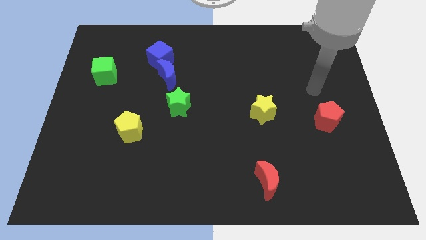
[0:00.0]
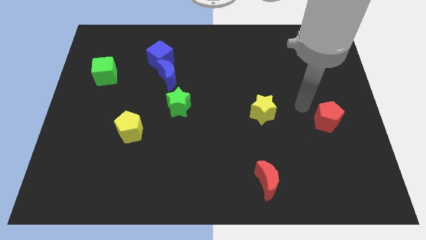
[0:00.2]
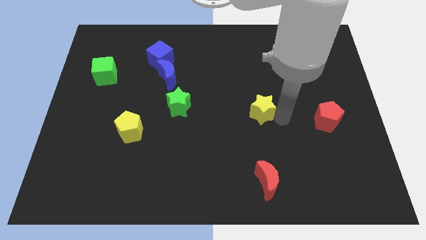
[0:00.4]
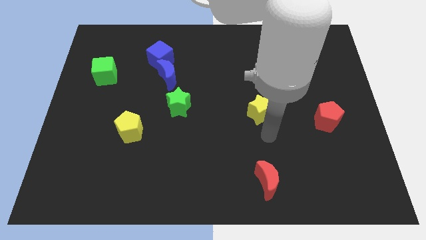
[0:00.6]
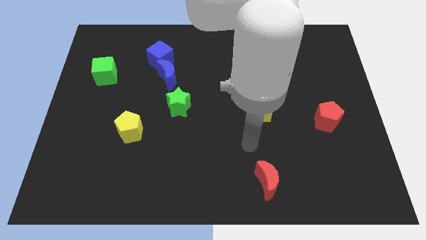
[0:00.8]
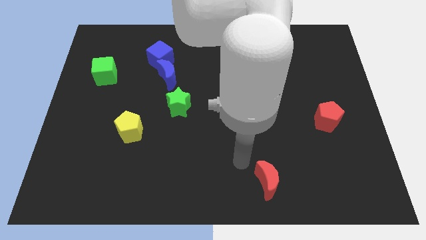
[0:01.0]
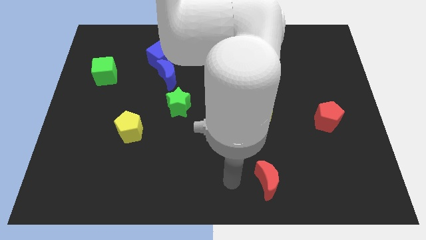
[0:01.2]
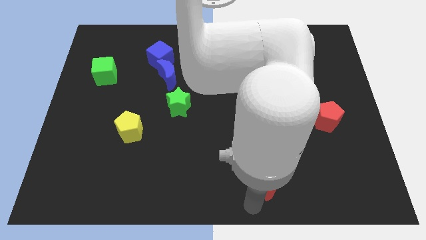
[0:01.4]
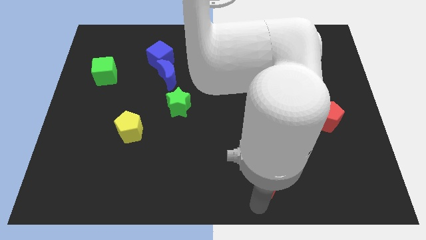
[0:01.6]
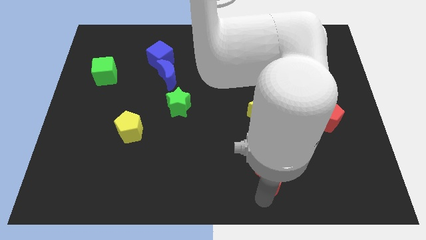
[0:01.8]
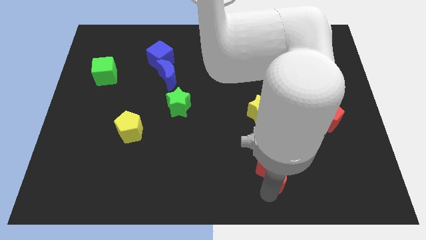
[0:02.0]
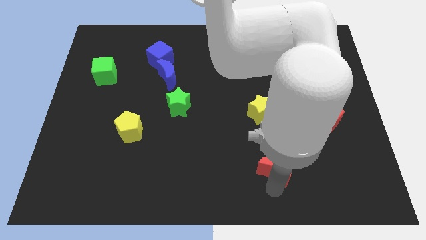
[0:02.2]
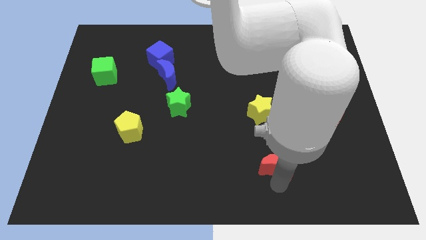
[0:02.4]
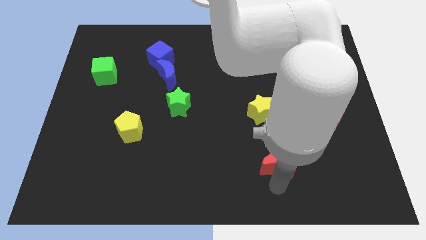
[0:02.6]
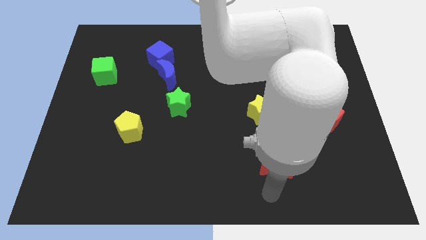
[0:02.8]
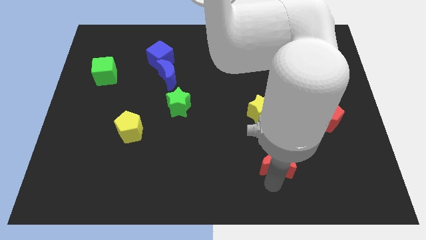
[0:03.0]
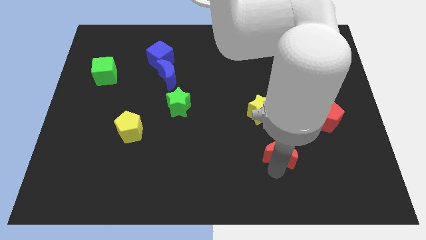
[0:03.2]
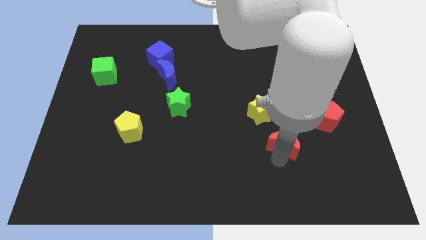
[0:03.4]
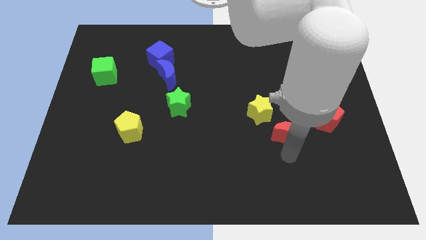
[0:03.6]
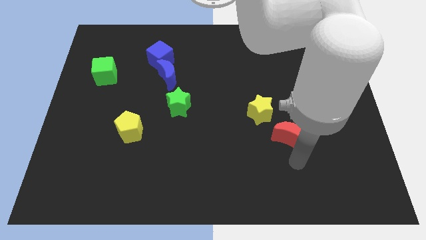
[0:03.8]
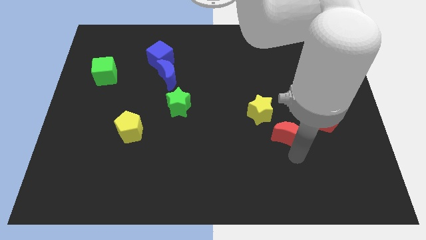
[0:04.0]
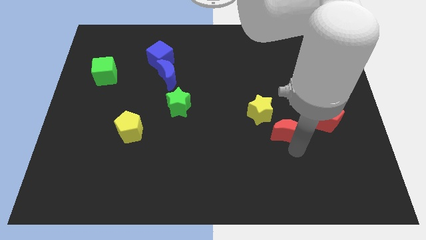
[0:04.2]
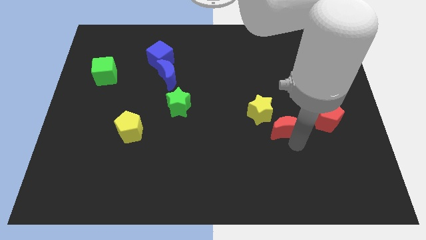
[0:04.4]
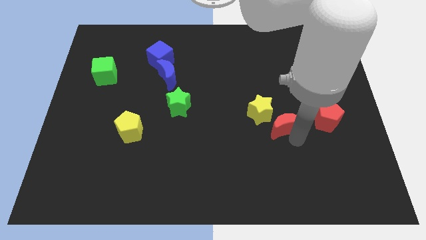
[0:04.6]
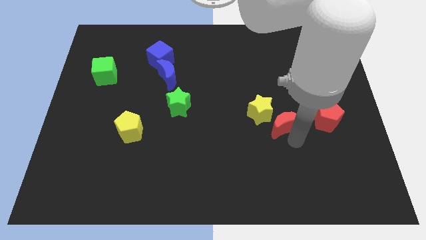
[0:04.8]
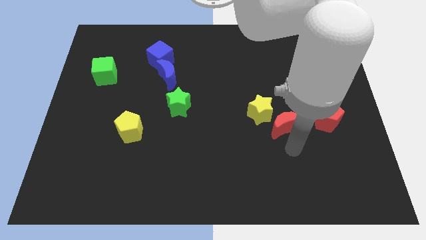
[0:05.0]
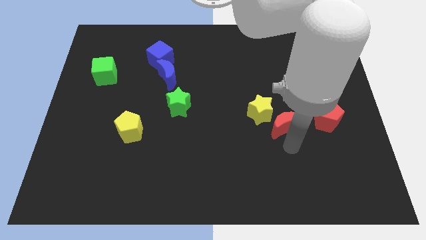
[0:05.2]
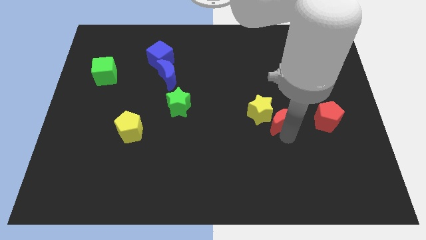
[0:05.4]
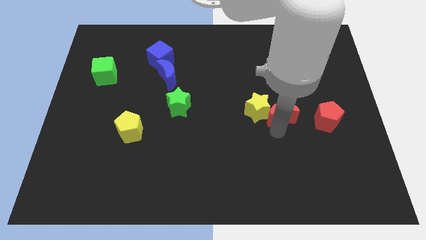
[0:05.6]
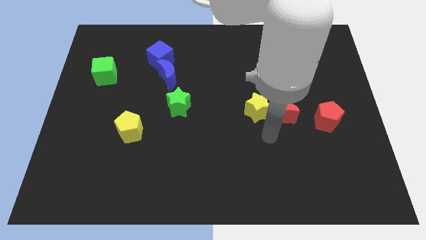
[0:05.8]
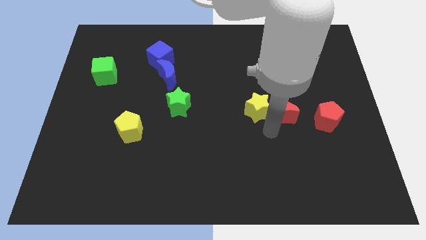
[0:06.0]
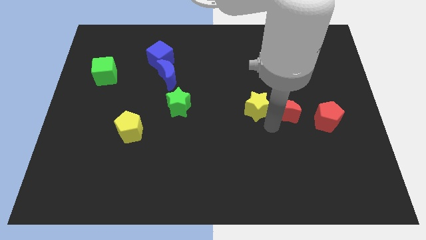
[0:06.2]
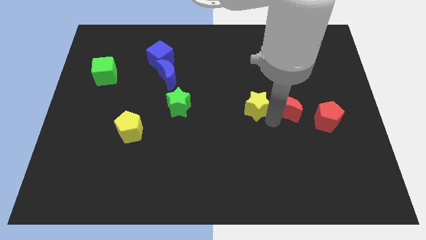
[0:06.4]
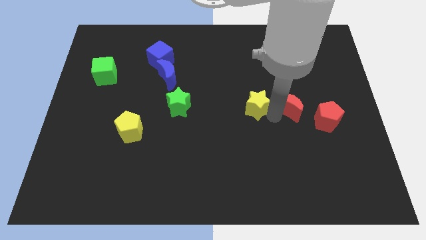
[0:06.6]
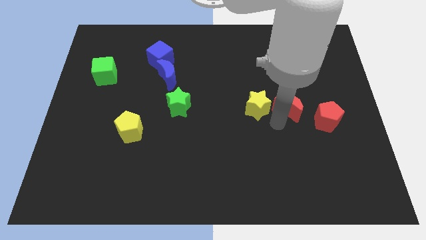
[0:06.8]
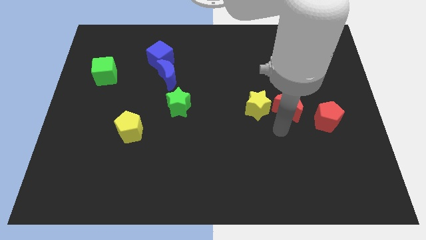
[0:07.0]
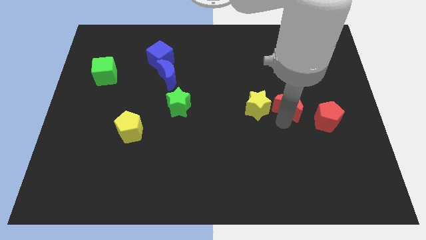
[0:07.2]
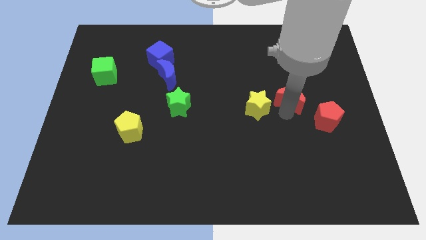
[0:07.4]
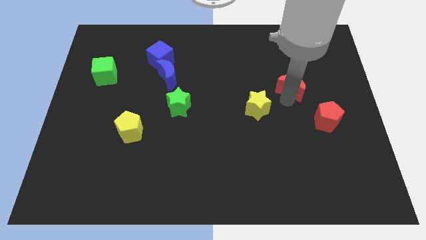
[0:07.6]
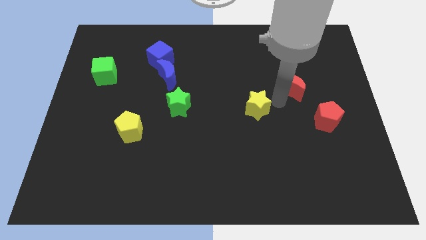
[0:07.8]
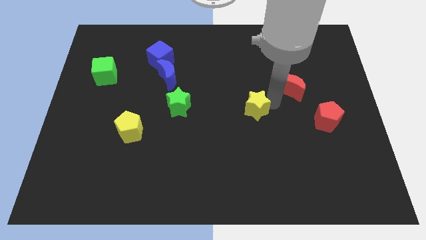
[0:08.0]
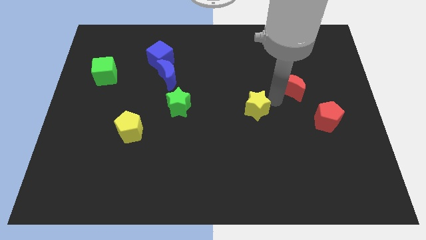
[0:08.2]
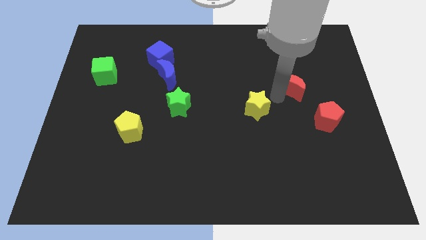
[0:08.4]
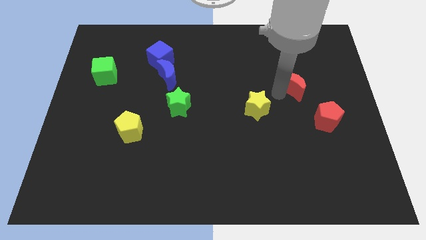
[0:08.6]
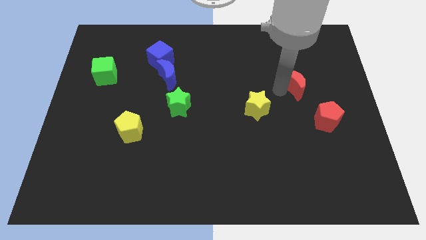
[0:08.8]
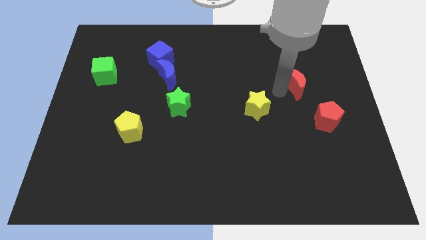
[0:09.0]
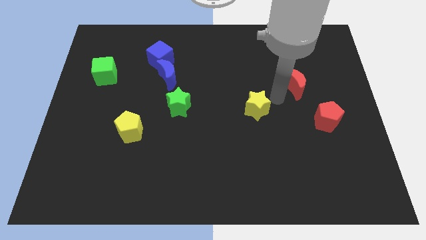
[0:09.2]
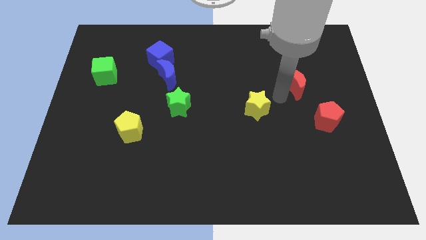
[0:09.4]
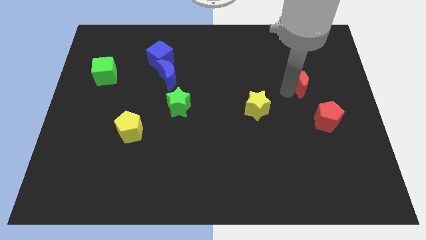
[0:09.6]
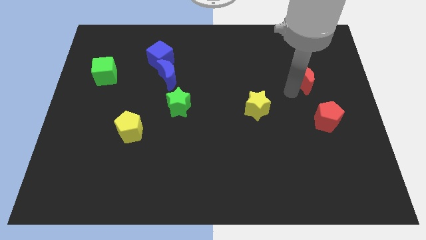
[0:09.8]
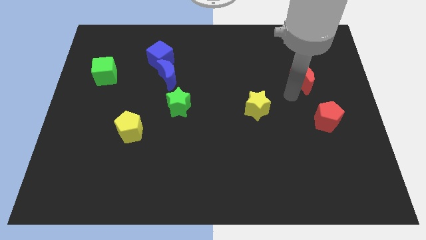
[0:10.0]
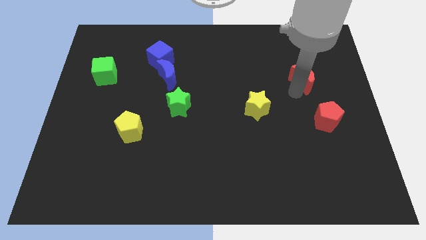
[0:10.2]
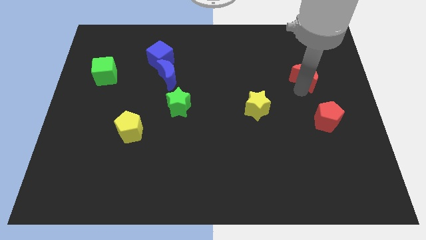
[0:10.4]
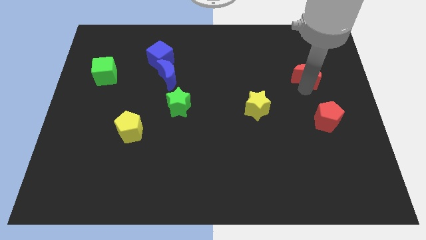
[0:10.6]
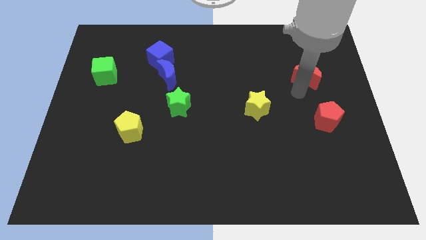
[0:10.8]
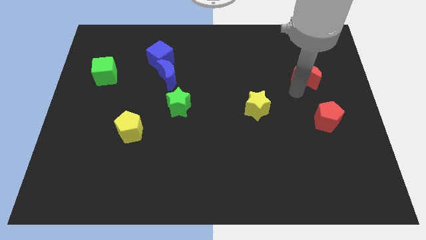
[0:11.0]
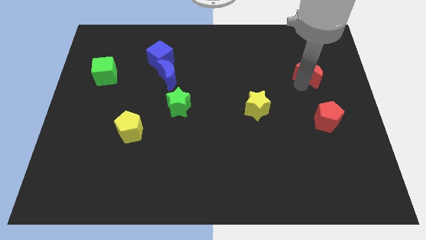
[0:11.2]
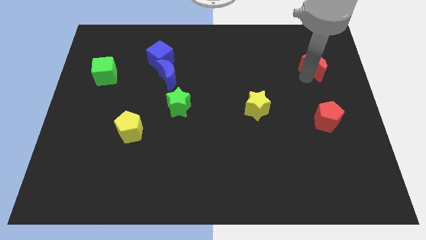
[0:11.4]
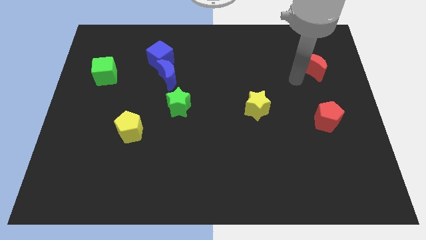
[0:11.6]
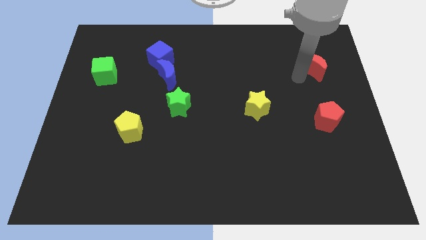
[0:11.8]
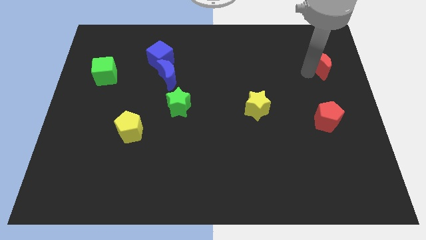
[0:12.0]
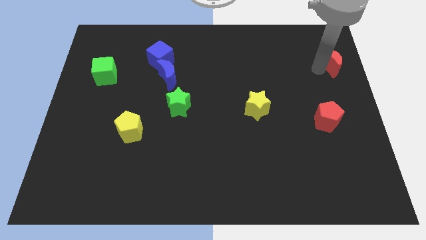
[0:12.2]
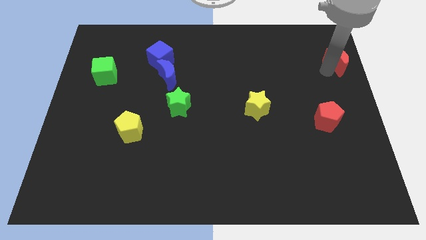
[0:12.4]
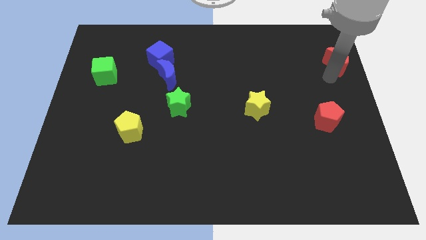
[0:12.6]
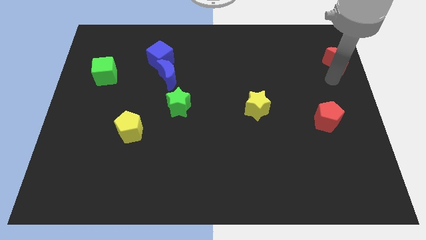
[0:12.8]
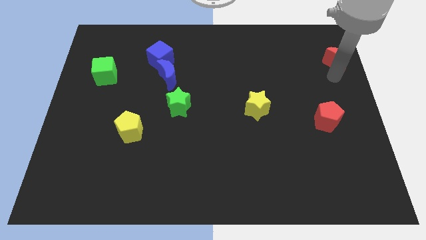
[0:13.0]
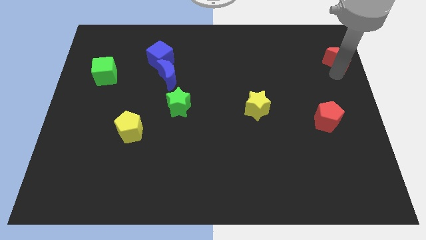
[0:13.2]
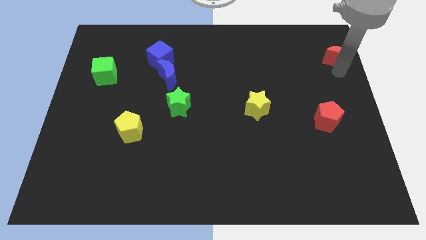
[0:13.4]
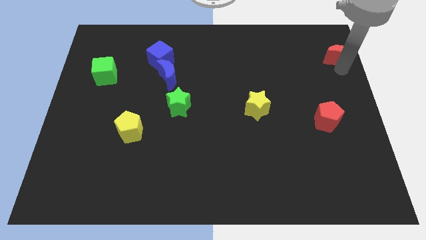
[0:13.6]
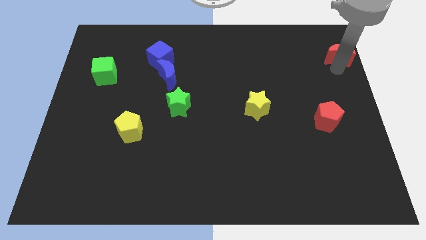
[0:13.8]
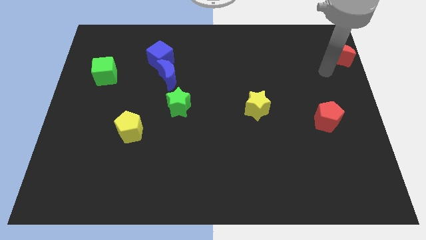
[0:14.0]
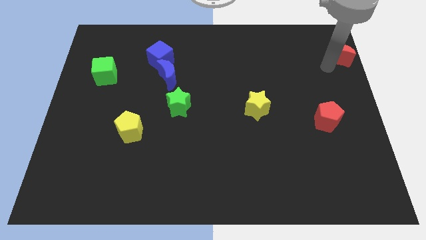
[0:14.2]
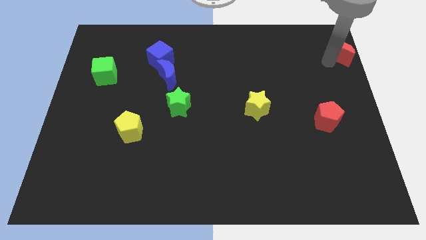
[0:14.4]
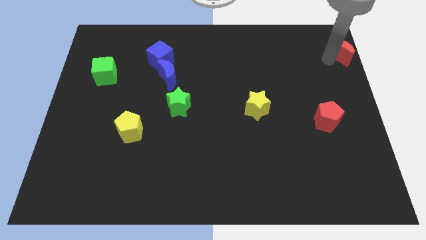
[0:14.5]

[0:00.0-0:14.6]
push the red moon to the top right of the board
